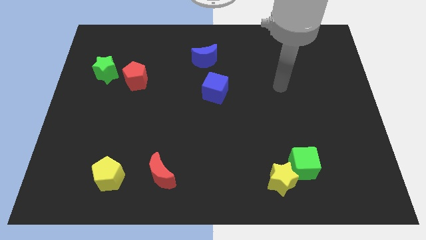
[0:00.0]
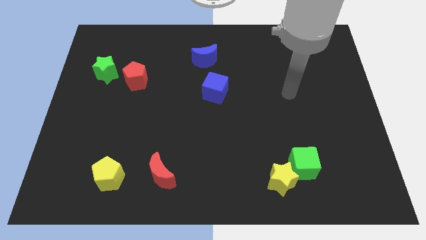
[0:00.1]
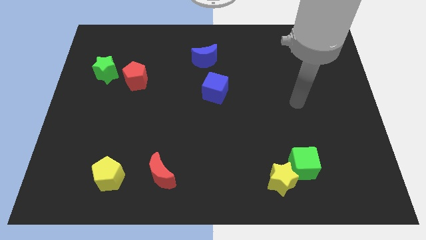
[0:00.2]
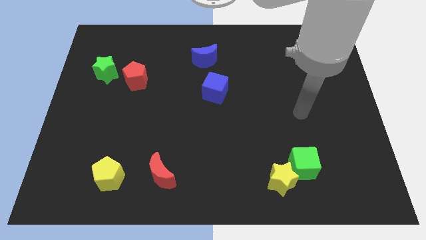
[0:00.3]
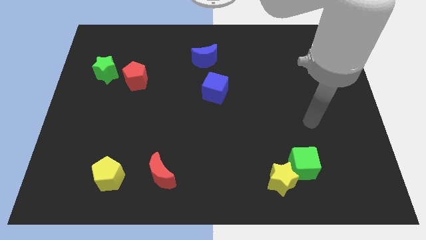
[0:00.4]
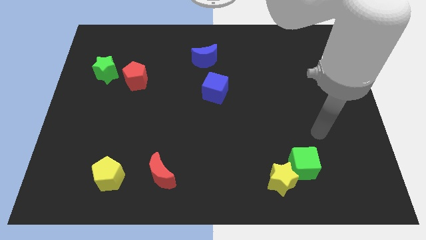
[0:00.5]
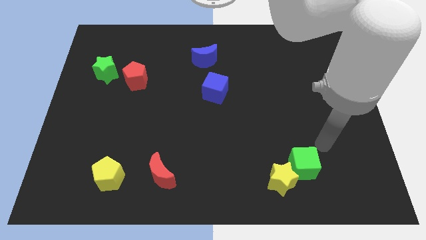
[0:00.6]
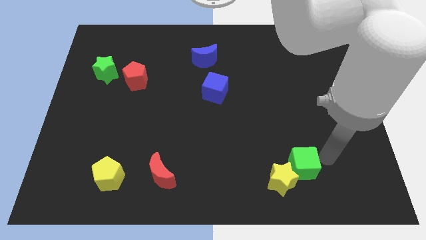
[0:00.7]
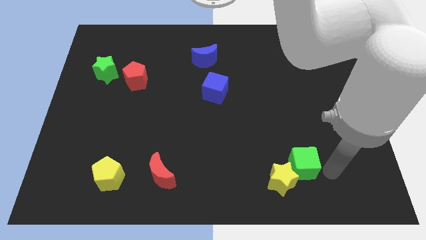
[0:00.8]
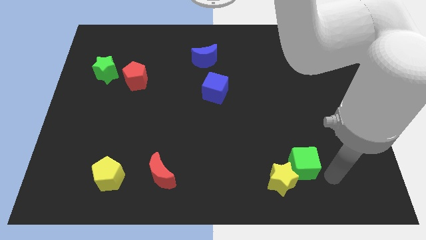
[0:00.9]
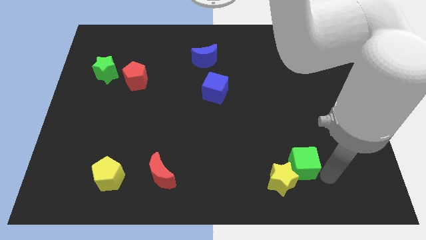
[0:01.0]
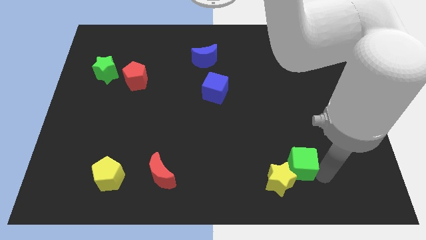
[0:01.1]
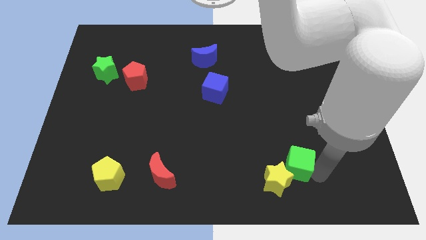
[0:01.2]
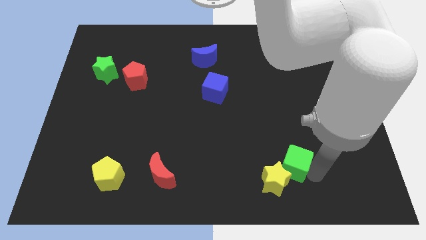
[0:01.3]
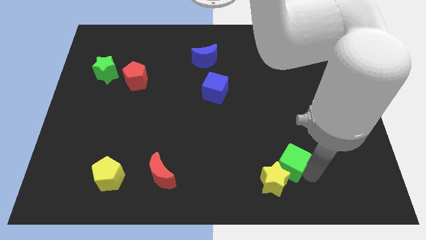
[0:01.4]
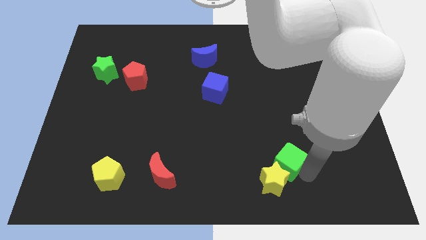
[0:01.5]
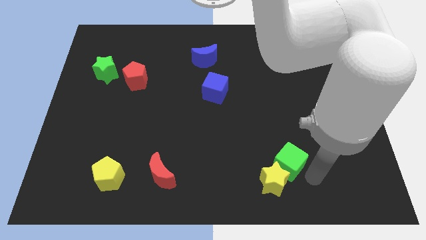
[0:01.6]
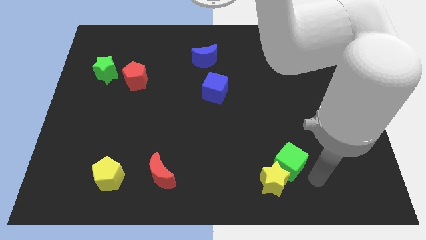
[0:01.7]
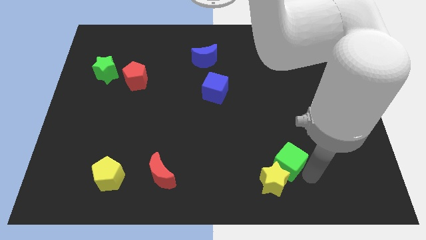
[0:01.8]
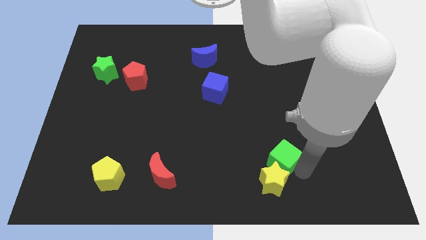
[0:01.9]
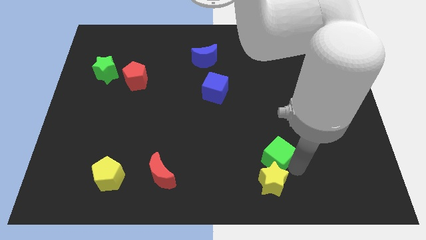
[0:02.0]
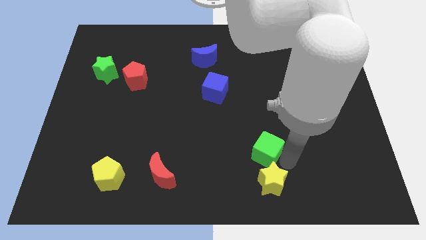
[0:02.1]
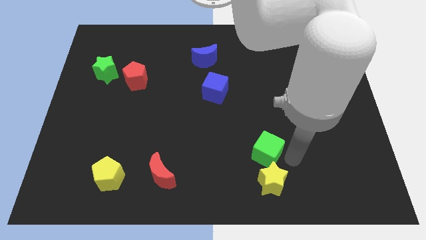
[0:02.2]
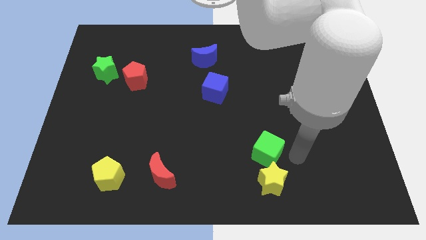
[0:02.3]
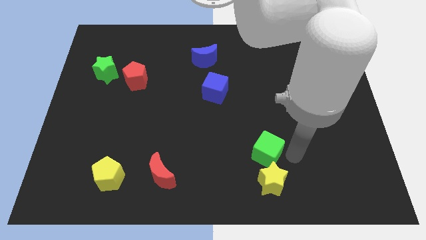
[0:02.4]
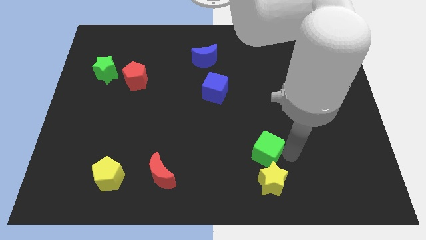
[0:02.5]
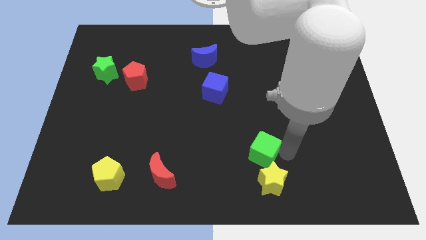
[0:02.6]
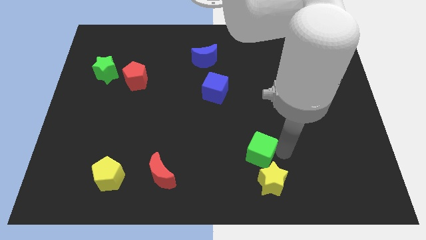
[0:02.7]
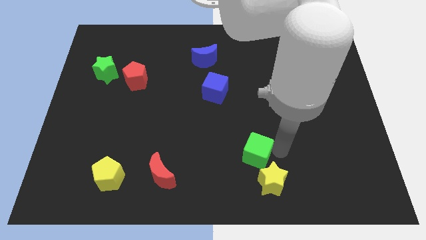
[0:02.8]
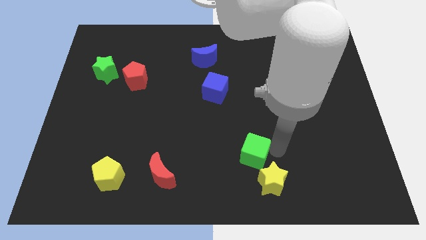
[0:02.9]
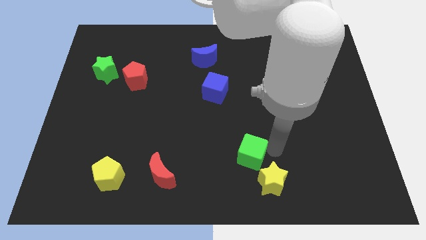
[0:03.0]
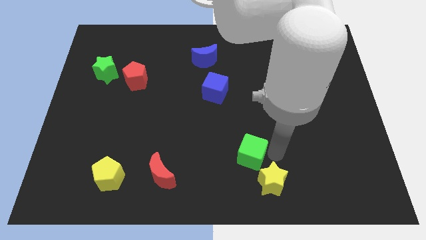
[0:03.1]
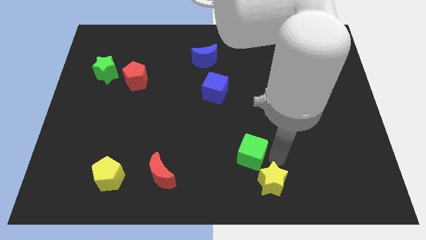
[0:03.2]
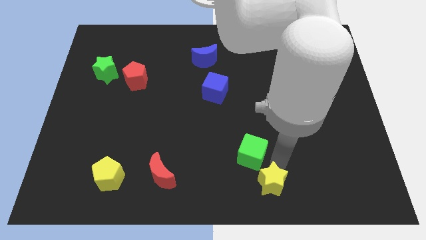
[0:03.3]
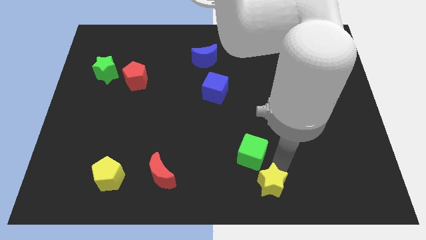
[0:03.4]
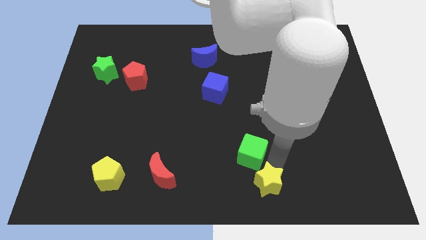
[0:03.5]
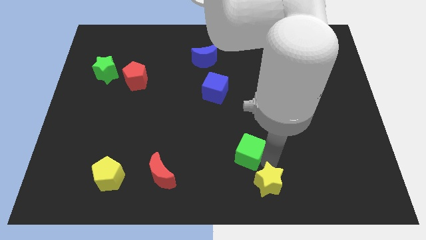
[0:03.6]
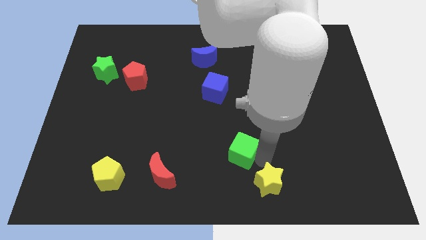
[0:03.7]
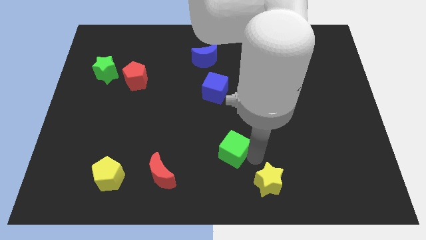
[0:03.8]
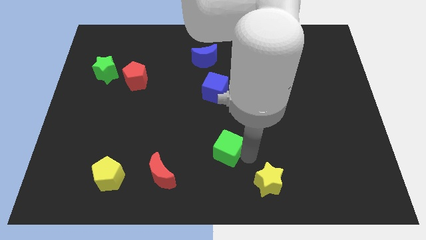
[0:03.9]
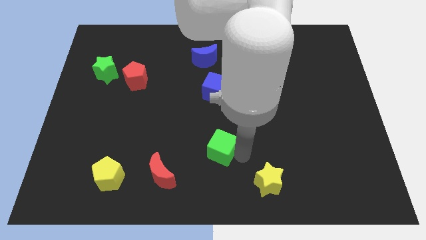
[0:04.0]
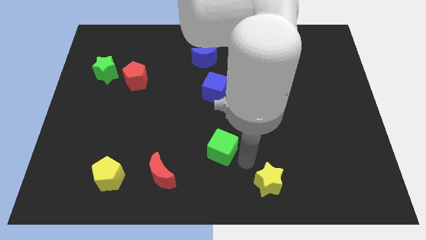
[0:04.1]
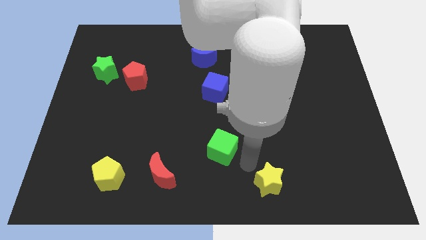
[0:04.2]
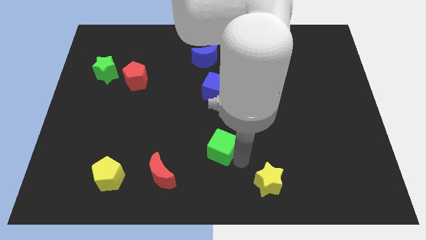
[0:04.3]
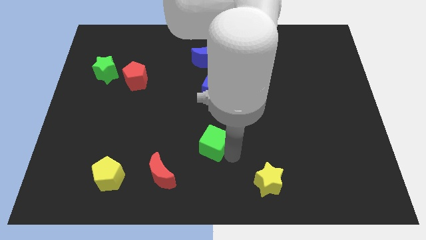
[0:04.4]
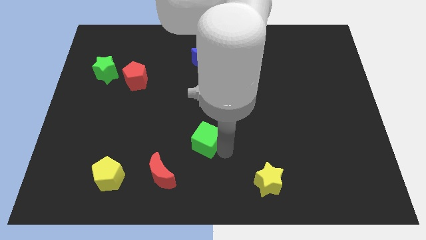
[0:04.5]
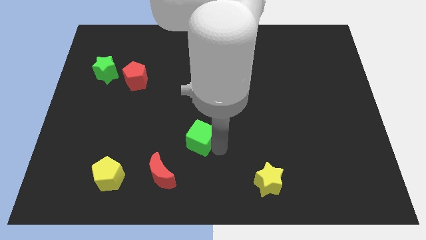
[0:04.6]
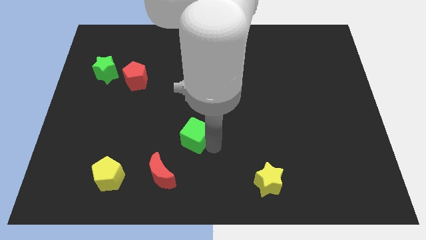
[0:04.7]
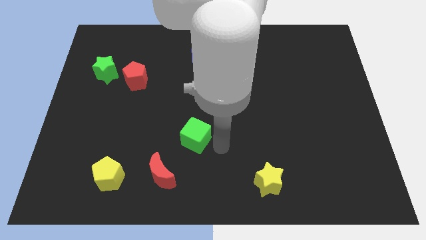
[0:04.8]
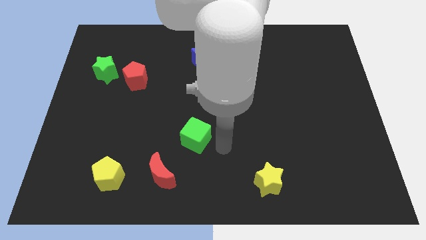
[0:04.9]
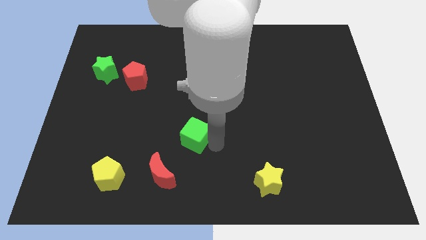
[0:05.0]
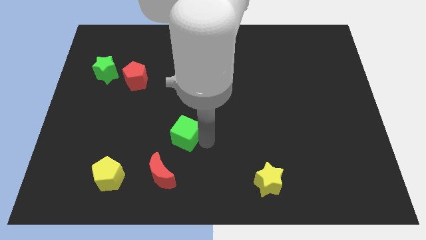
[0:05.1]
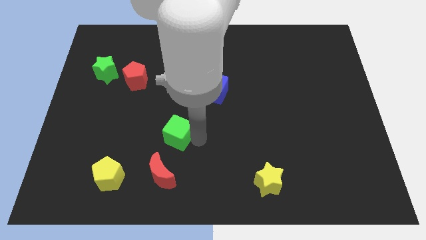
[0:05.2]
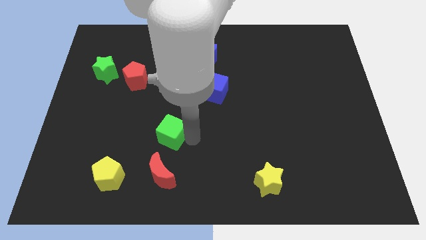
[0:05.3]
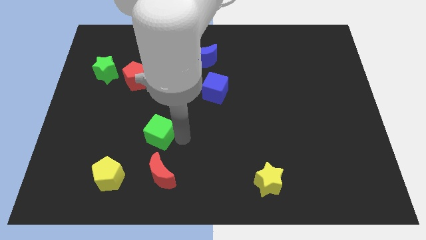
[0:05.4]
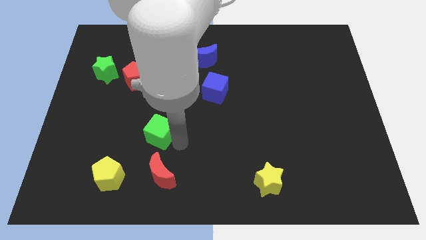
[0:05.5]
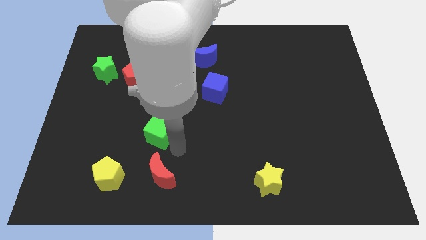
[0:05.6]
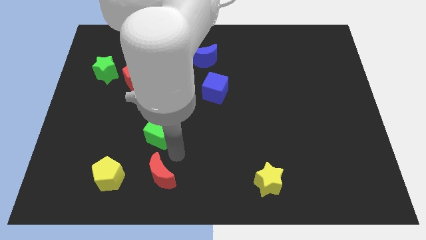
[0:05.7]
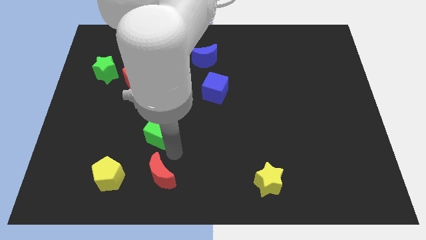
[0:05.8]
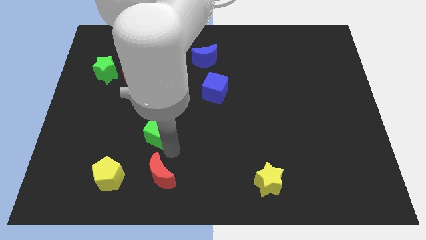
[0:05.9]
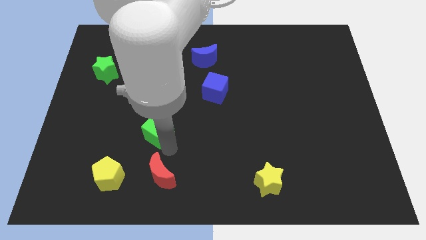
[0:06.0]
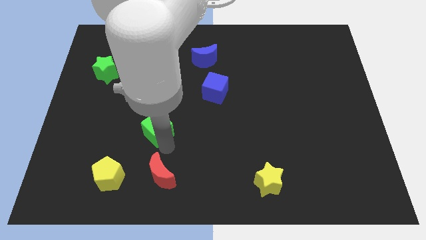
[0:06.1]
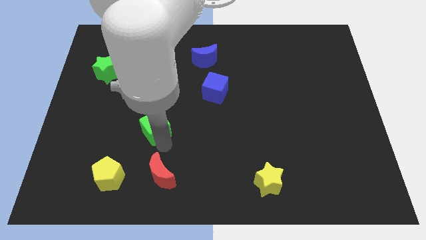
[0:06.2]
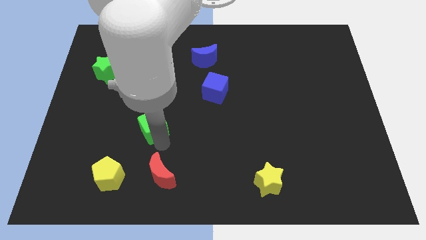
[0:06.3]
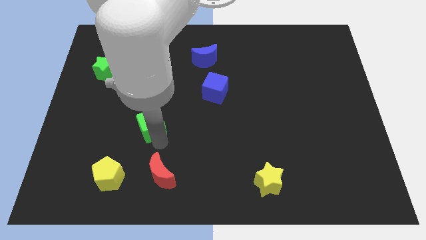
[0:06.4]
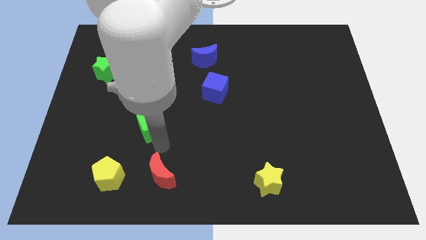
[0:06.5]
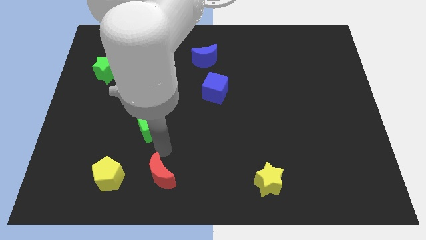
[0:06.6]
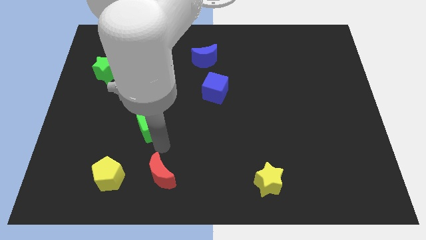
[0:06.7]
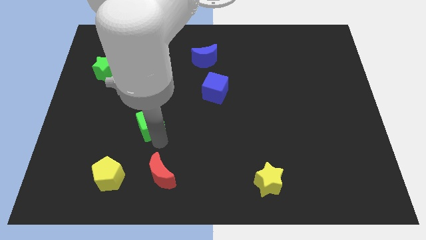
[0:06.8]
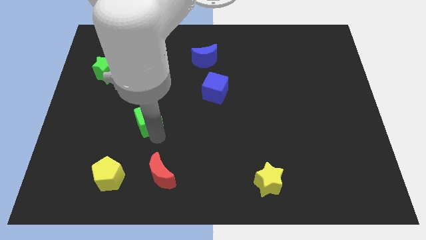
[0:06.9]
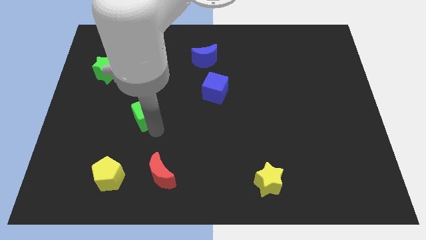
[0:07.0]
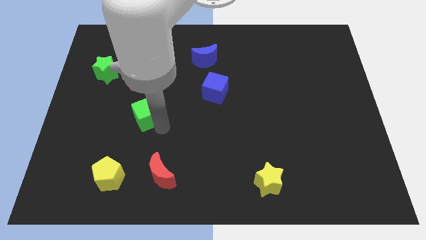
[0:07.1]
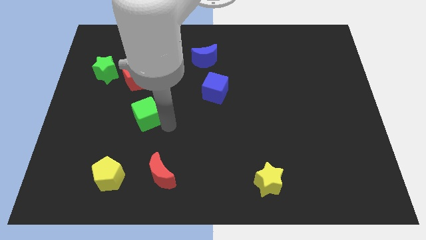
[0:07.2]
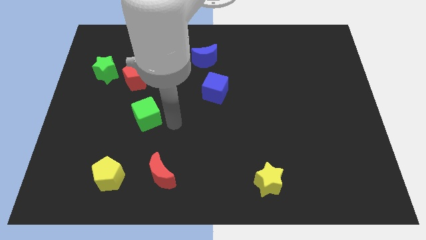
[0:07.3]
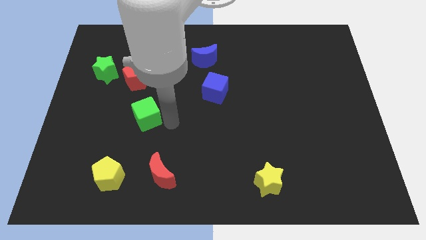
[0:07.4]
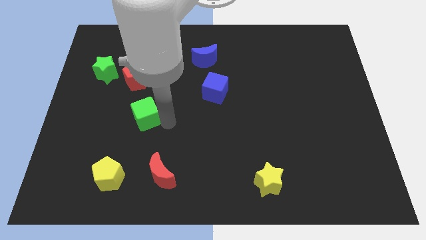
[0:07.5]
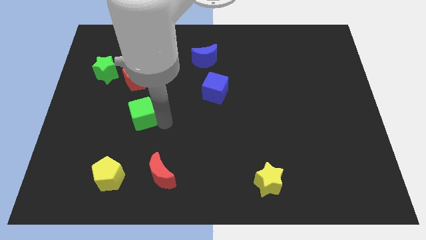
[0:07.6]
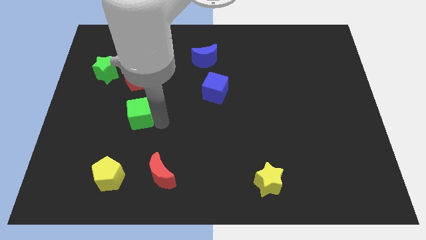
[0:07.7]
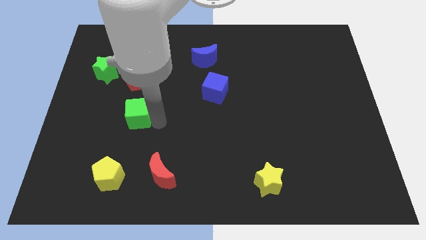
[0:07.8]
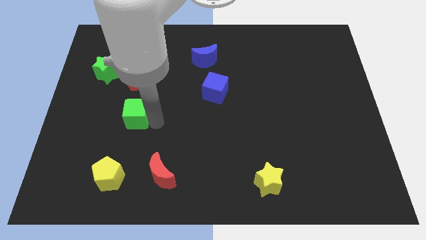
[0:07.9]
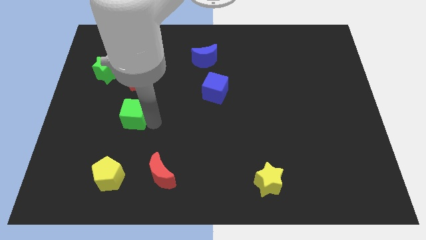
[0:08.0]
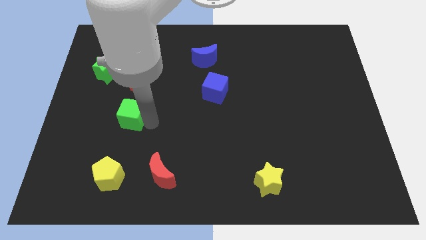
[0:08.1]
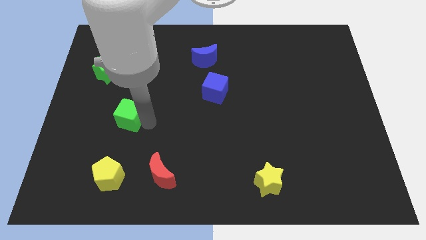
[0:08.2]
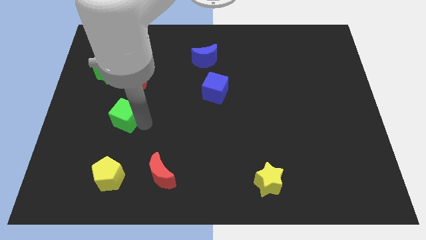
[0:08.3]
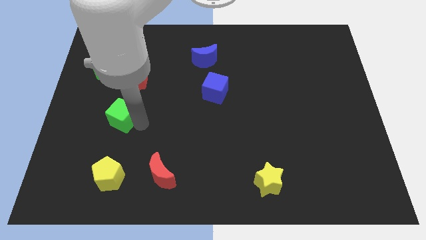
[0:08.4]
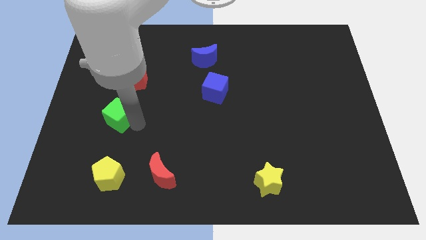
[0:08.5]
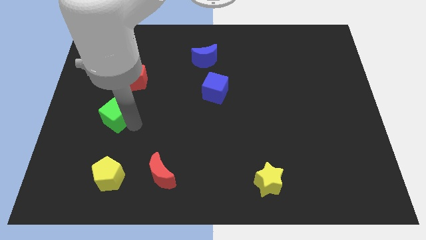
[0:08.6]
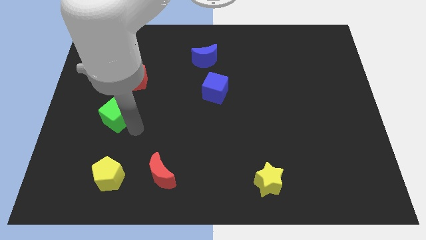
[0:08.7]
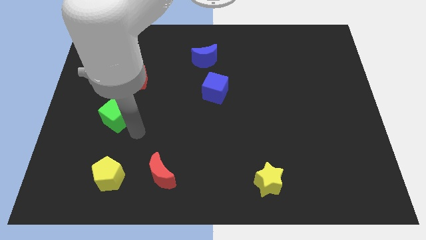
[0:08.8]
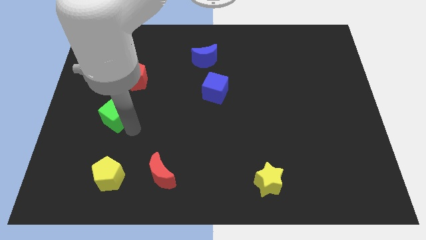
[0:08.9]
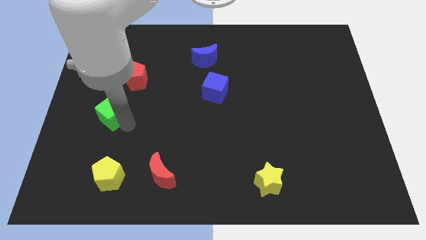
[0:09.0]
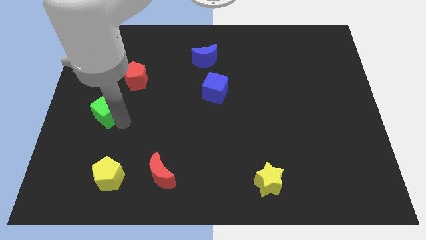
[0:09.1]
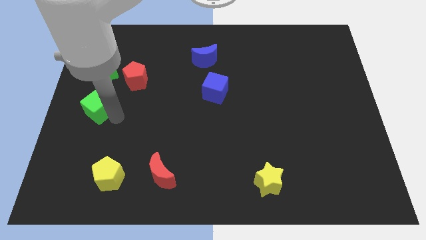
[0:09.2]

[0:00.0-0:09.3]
slide the green cube to the left side
